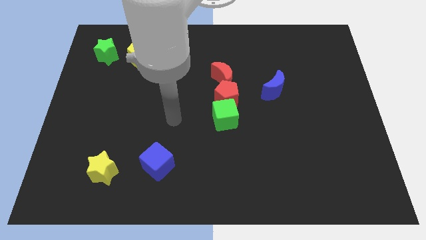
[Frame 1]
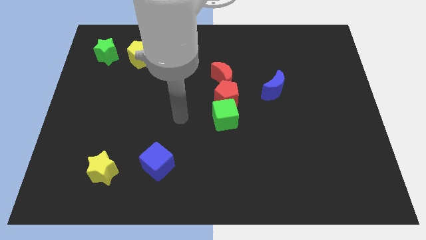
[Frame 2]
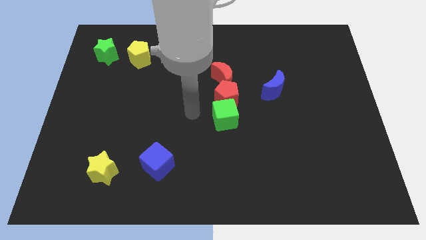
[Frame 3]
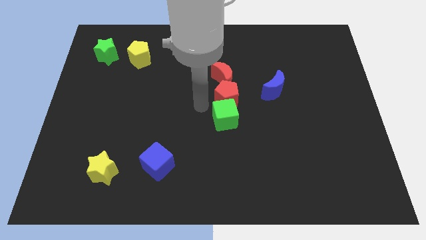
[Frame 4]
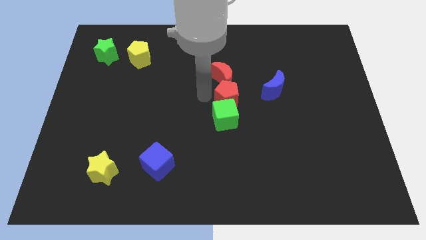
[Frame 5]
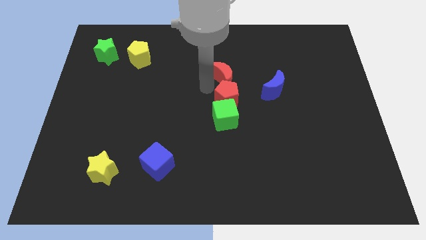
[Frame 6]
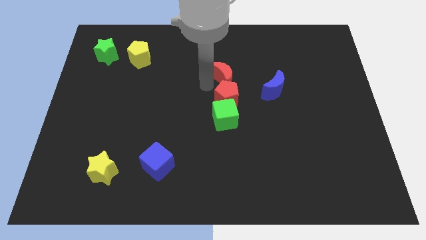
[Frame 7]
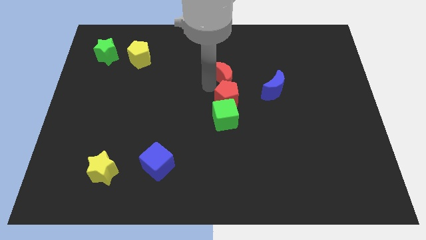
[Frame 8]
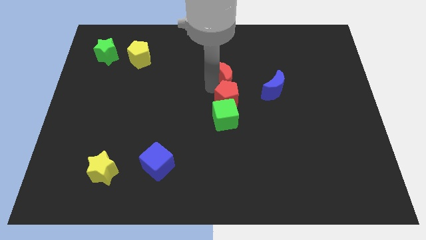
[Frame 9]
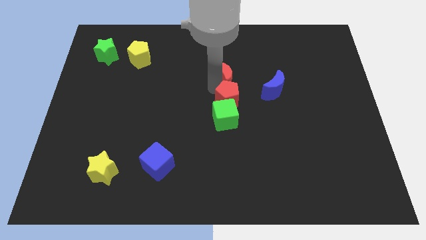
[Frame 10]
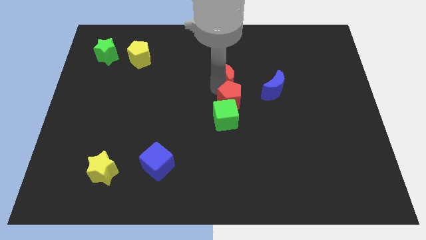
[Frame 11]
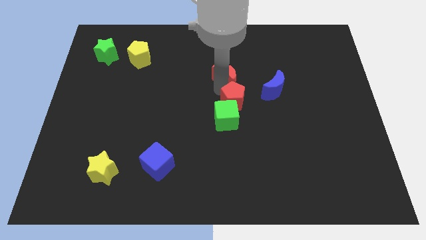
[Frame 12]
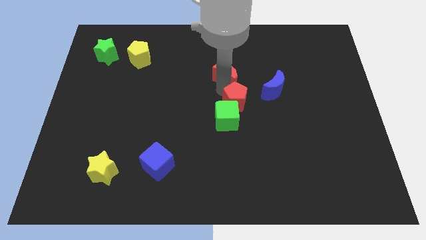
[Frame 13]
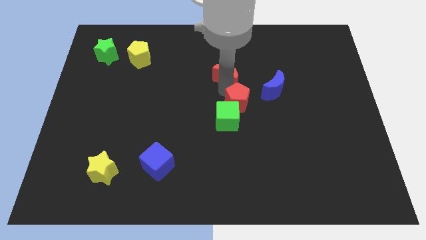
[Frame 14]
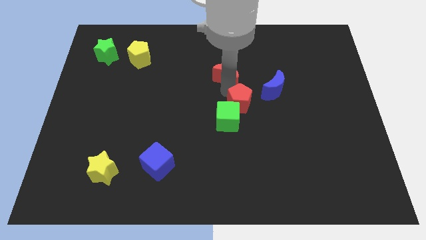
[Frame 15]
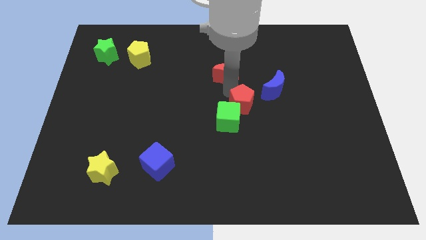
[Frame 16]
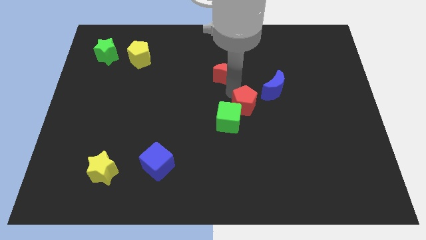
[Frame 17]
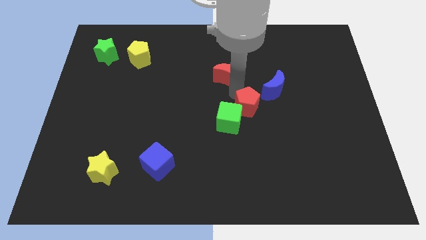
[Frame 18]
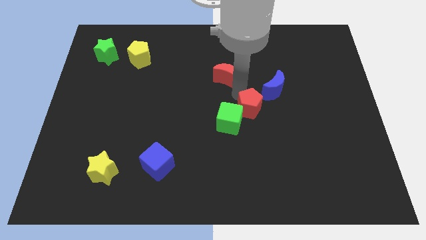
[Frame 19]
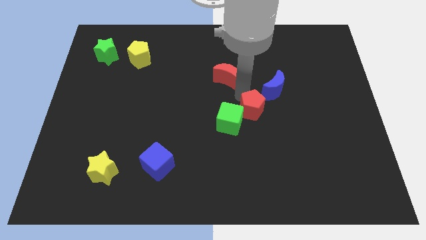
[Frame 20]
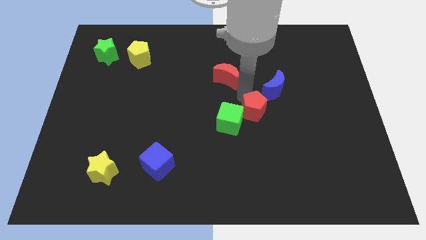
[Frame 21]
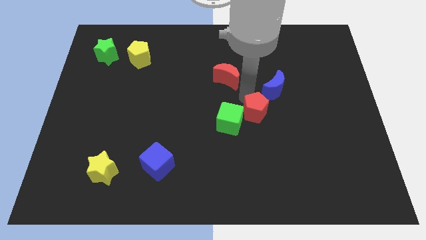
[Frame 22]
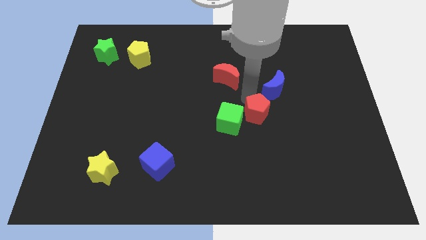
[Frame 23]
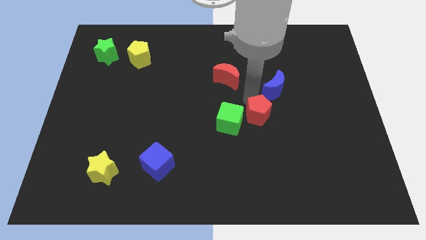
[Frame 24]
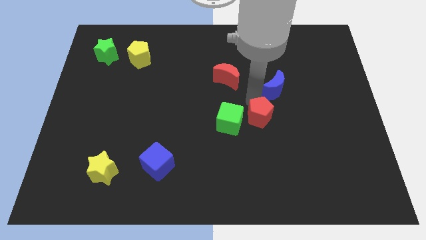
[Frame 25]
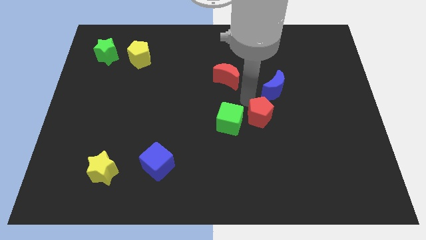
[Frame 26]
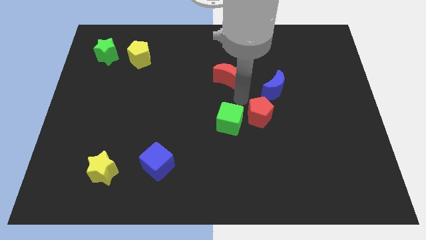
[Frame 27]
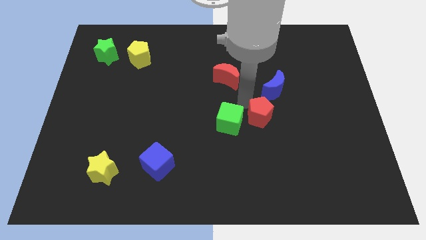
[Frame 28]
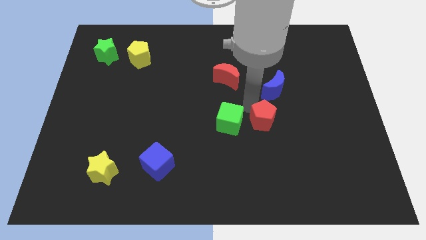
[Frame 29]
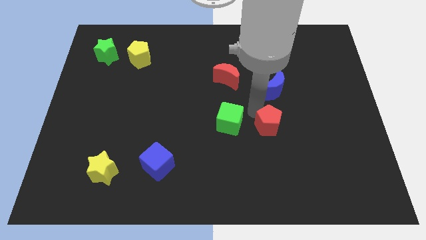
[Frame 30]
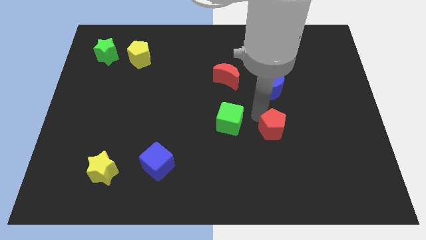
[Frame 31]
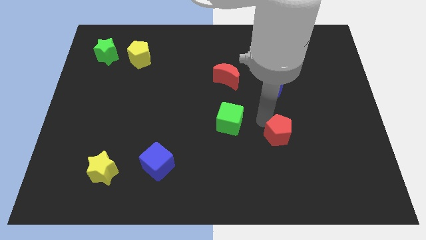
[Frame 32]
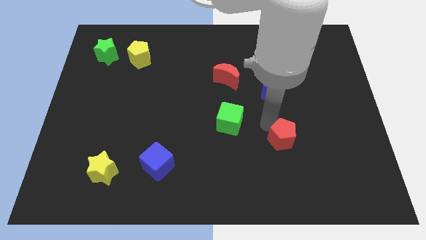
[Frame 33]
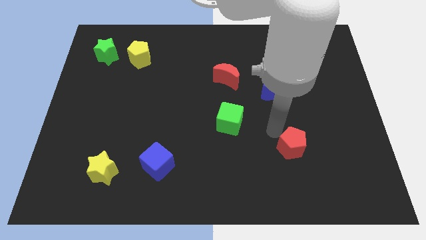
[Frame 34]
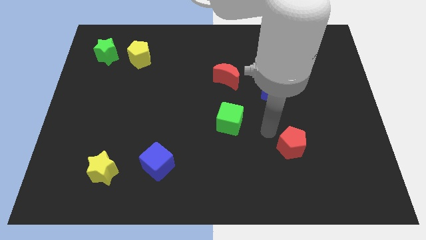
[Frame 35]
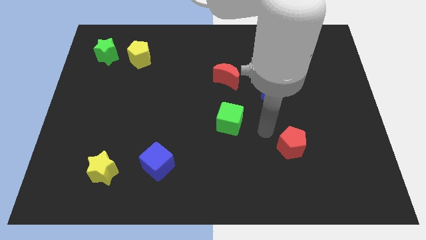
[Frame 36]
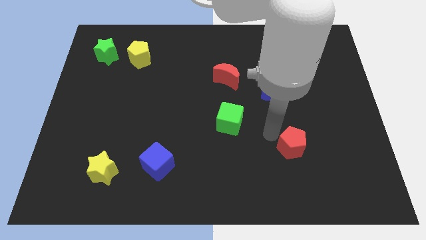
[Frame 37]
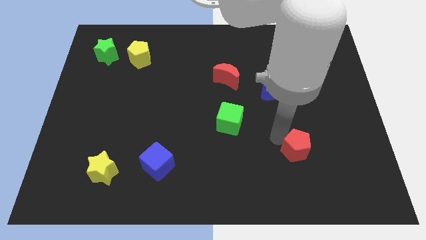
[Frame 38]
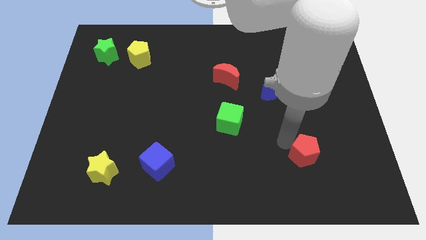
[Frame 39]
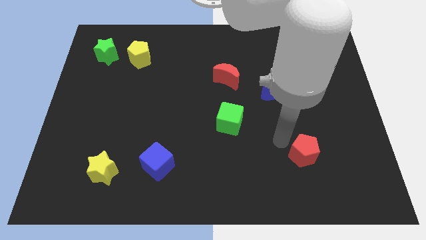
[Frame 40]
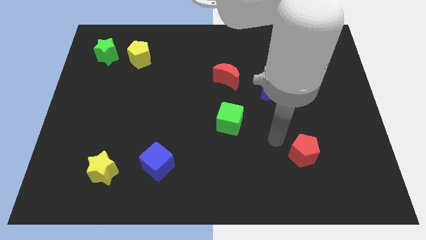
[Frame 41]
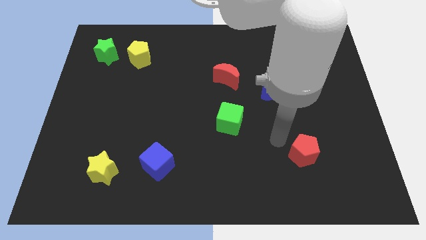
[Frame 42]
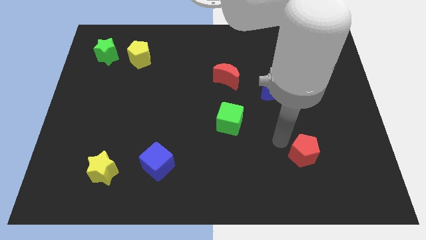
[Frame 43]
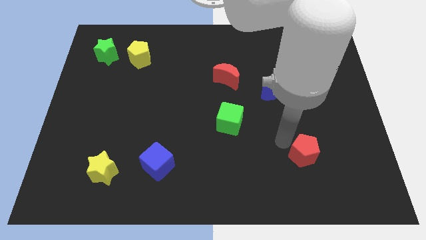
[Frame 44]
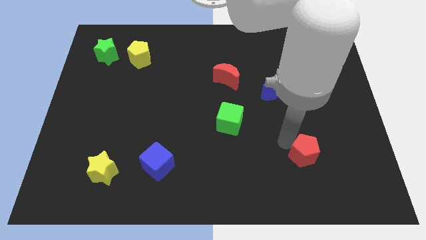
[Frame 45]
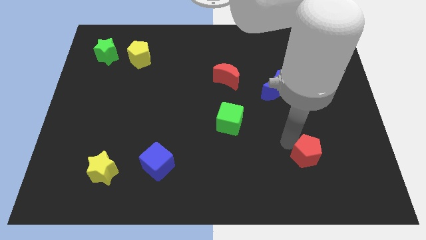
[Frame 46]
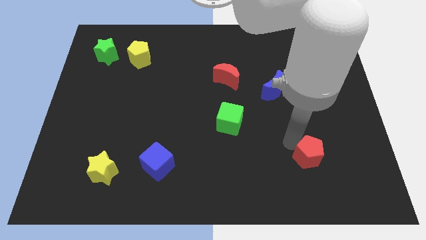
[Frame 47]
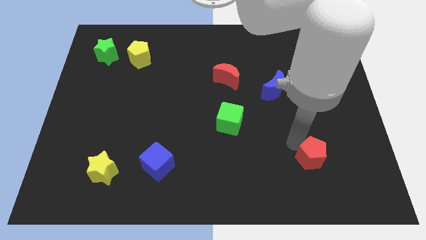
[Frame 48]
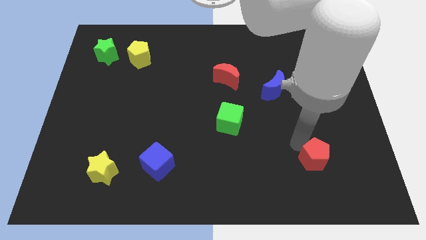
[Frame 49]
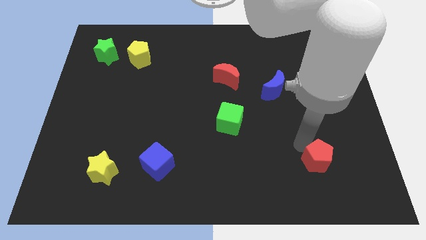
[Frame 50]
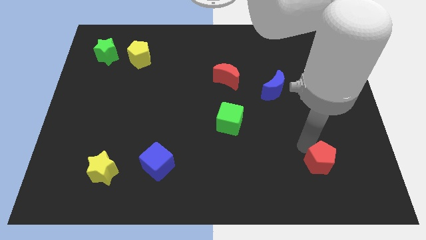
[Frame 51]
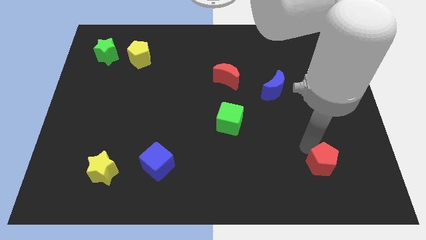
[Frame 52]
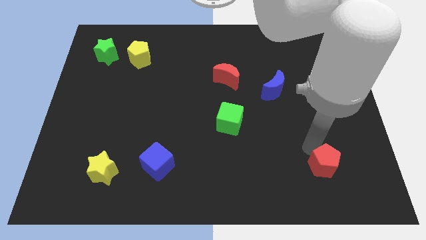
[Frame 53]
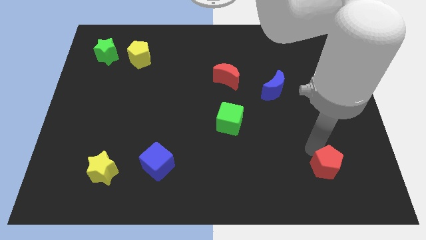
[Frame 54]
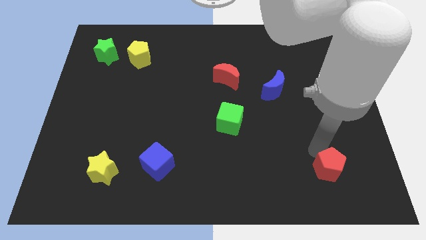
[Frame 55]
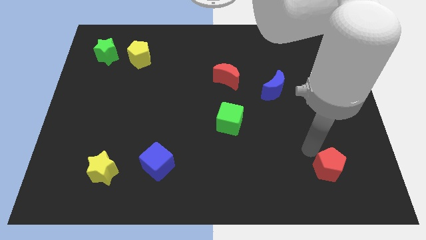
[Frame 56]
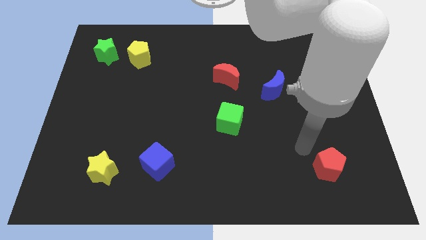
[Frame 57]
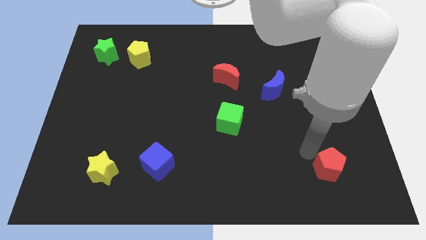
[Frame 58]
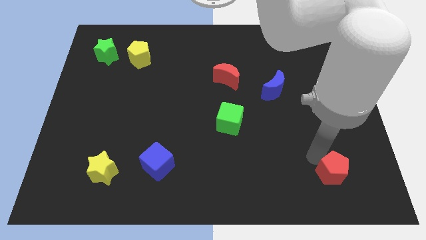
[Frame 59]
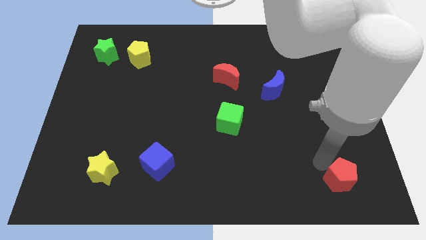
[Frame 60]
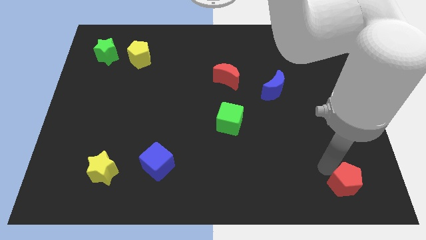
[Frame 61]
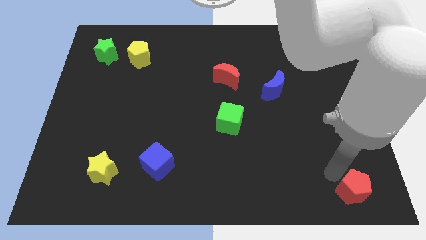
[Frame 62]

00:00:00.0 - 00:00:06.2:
slide the red pentagon to the bottom right corner

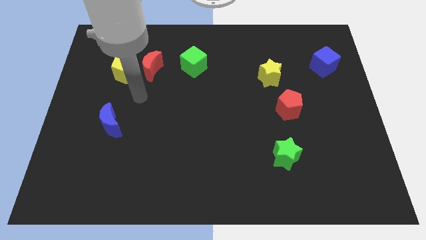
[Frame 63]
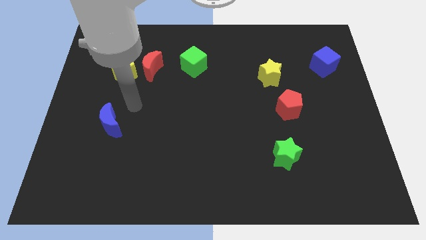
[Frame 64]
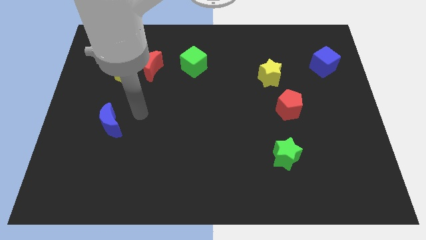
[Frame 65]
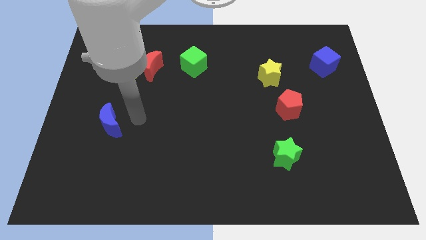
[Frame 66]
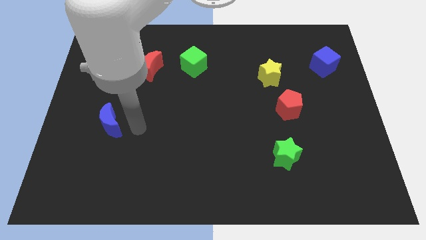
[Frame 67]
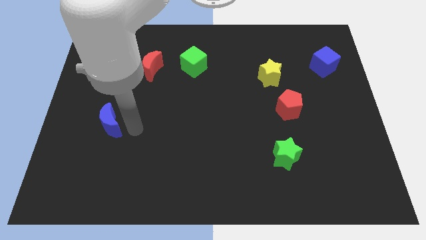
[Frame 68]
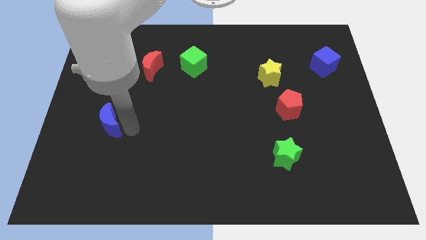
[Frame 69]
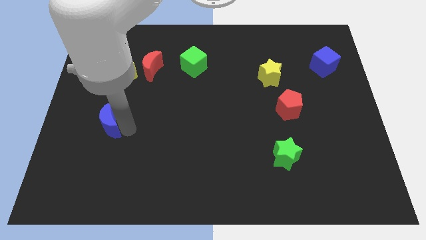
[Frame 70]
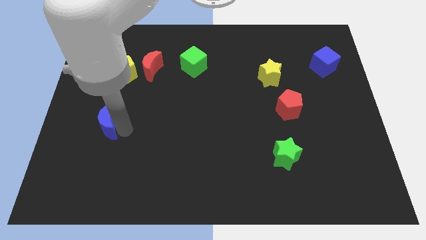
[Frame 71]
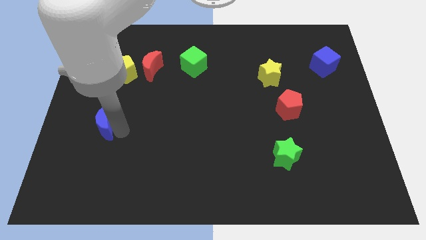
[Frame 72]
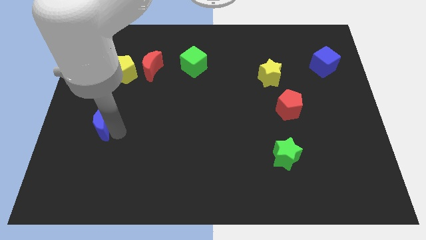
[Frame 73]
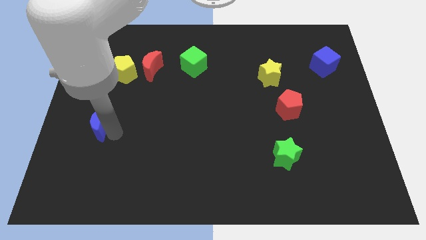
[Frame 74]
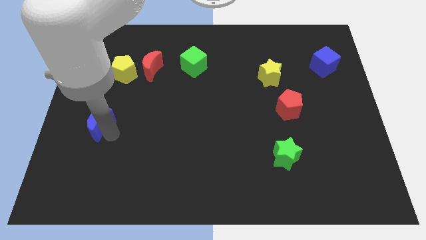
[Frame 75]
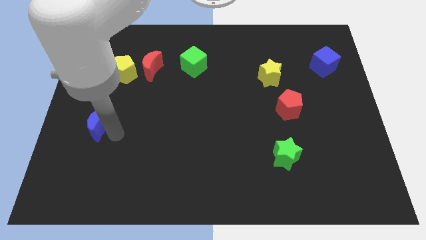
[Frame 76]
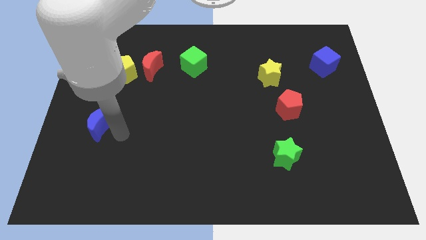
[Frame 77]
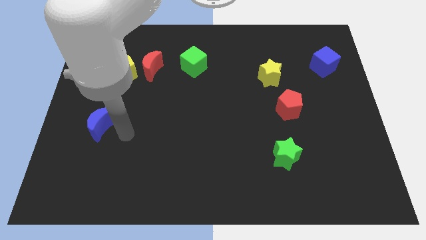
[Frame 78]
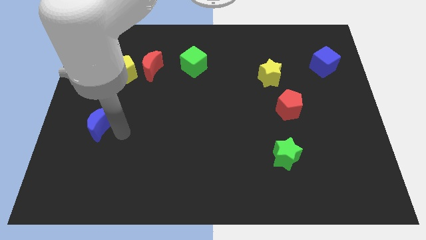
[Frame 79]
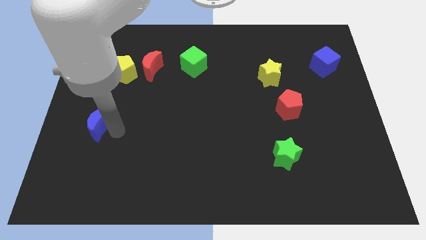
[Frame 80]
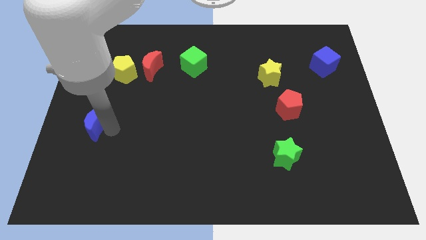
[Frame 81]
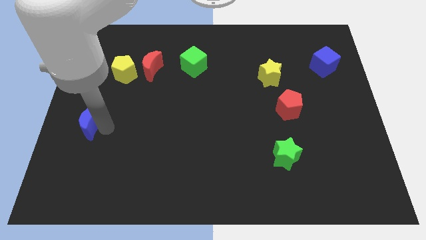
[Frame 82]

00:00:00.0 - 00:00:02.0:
slide the blue moon to the left side of the board

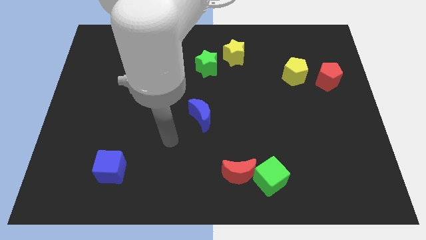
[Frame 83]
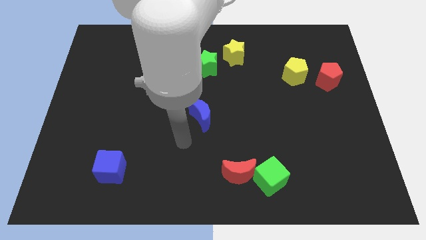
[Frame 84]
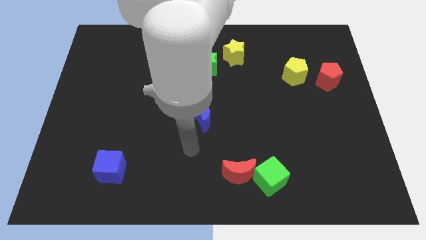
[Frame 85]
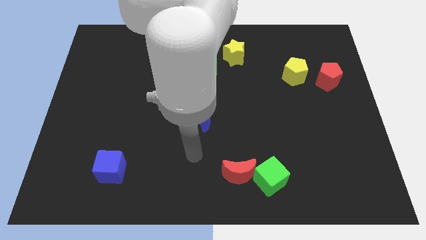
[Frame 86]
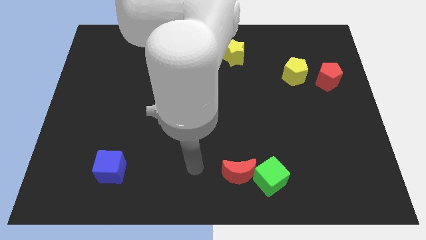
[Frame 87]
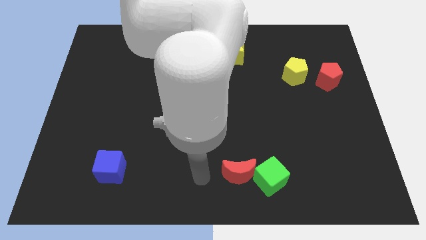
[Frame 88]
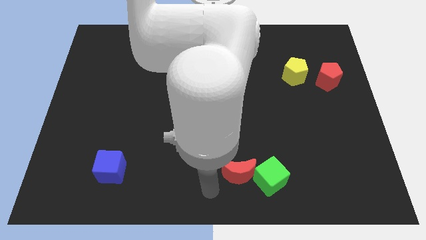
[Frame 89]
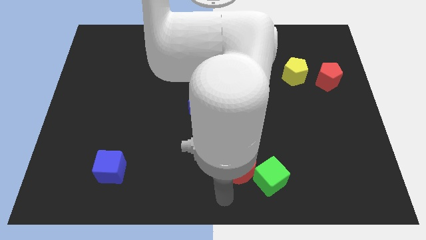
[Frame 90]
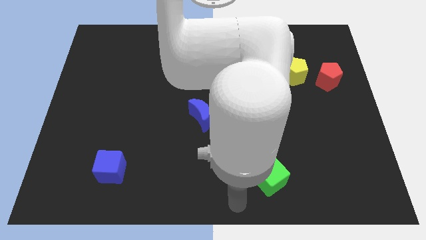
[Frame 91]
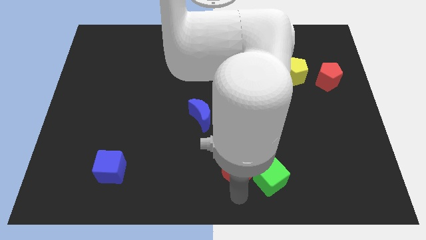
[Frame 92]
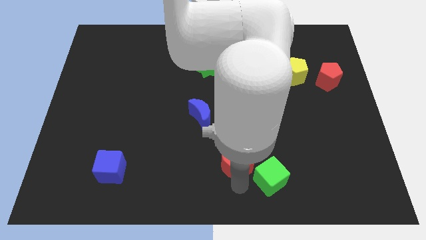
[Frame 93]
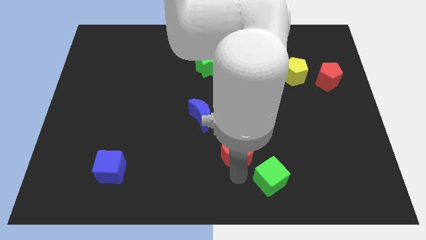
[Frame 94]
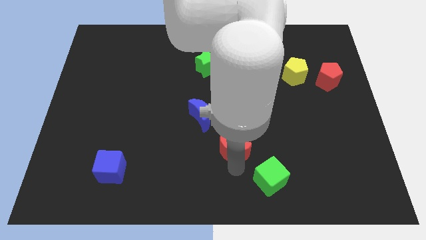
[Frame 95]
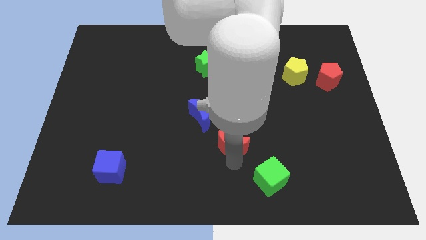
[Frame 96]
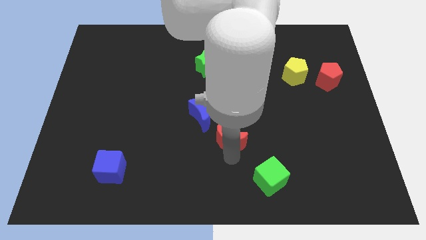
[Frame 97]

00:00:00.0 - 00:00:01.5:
push the red moon to the middle of the board
